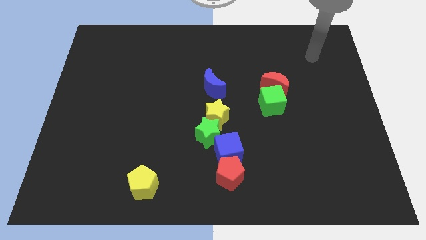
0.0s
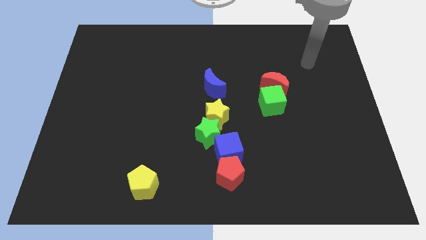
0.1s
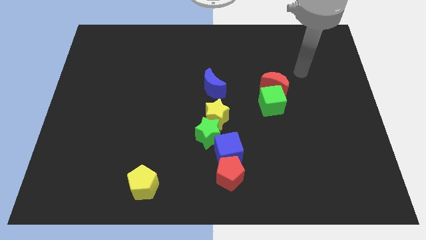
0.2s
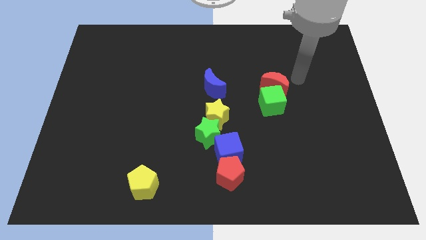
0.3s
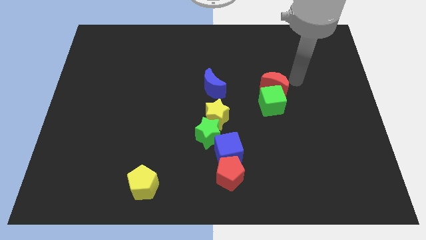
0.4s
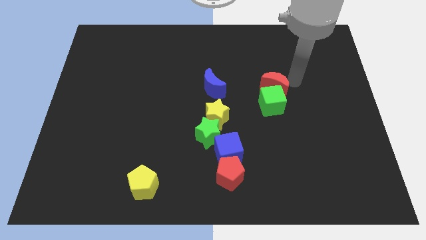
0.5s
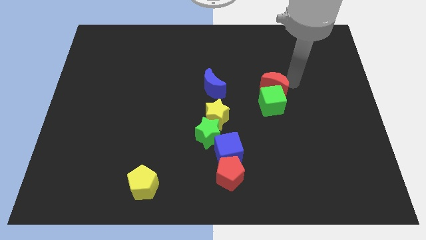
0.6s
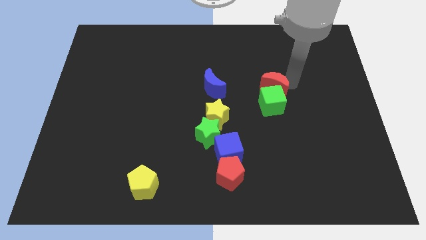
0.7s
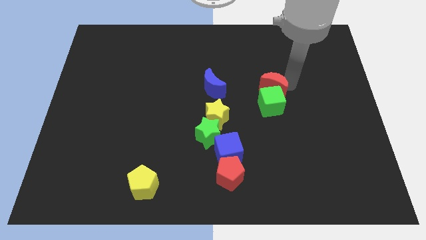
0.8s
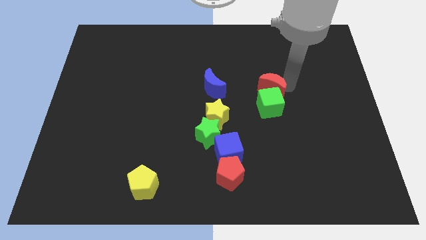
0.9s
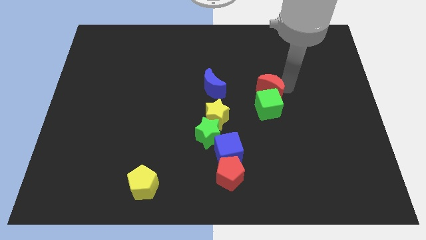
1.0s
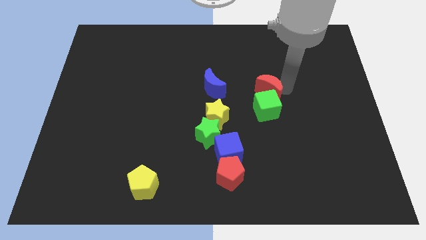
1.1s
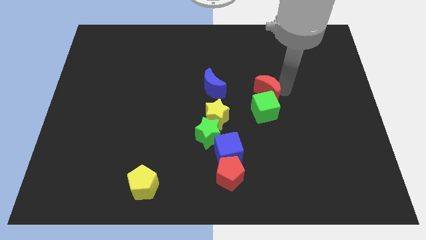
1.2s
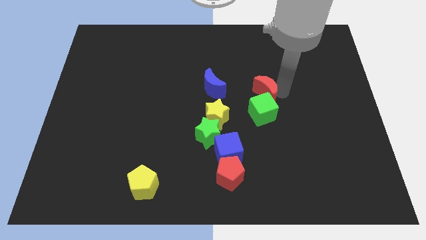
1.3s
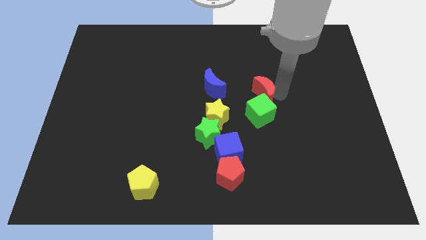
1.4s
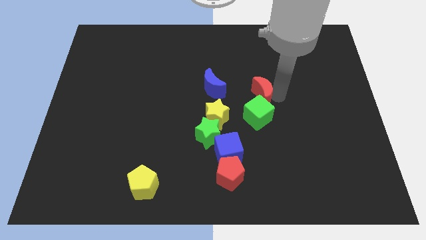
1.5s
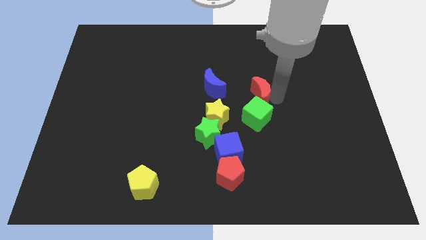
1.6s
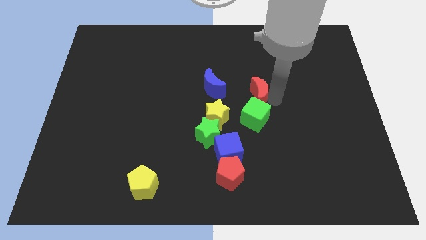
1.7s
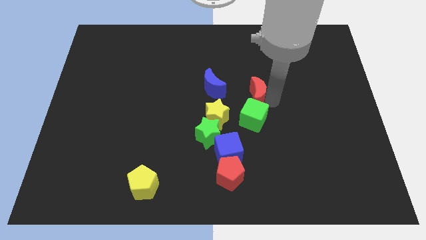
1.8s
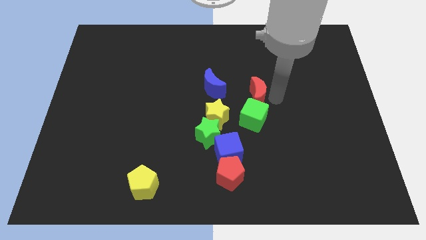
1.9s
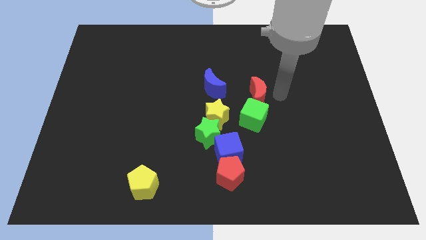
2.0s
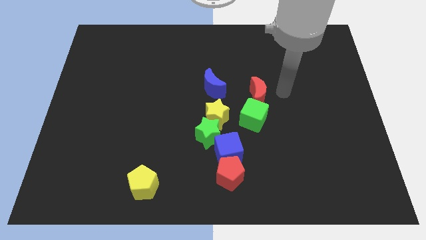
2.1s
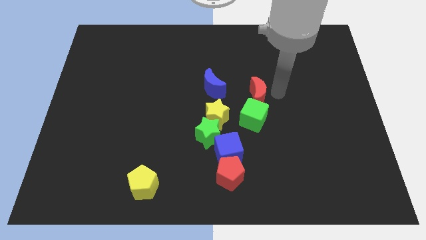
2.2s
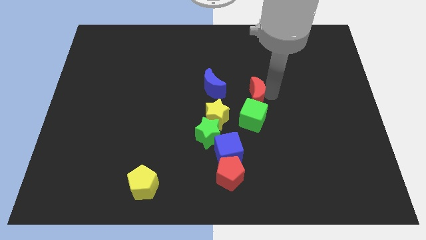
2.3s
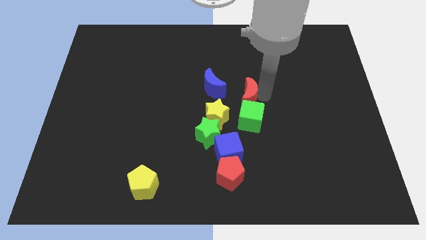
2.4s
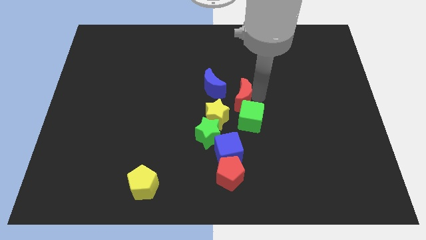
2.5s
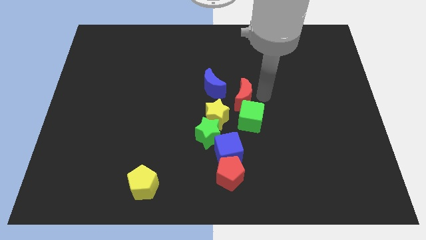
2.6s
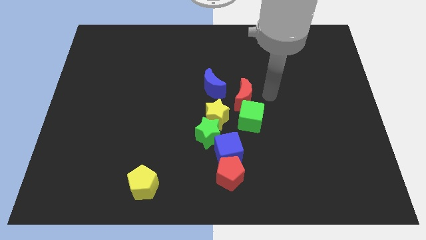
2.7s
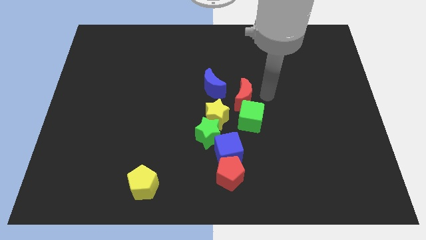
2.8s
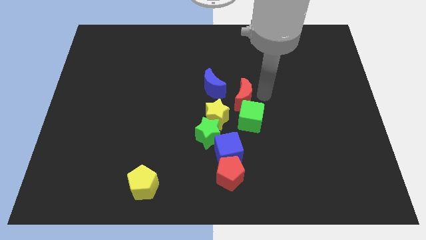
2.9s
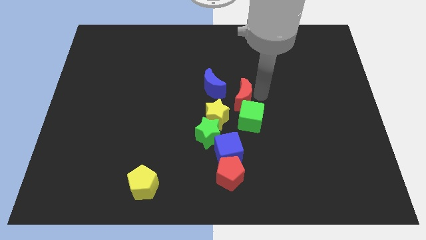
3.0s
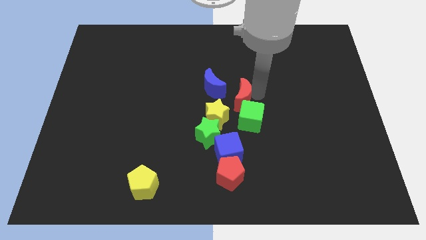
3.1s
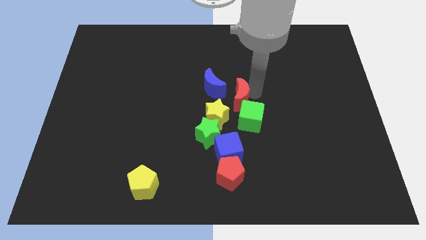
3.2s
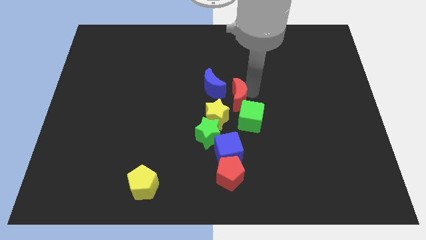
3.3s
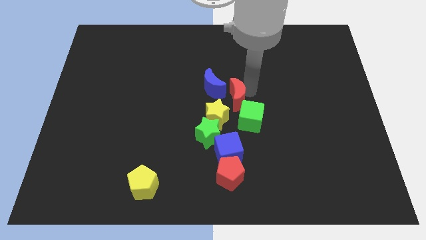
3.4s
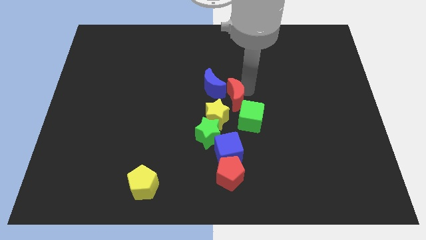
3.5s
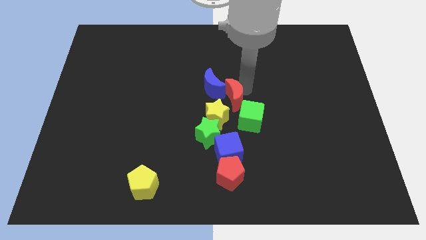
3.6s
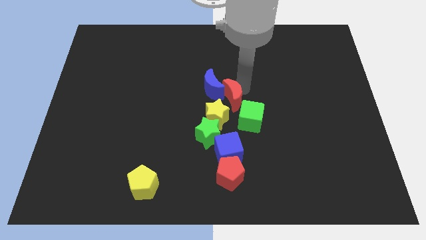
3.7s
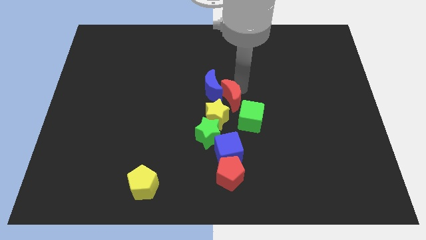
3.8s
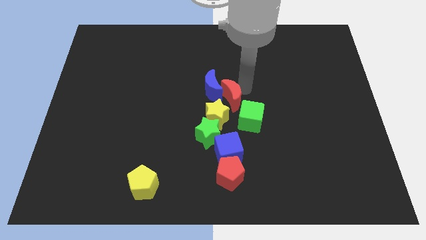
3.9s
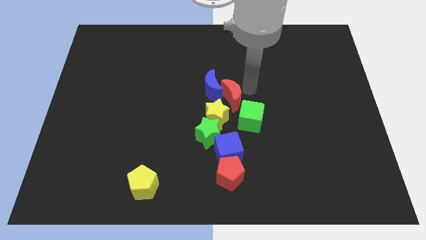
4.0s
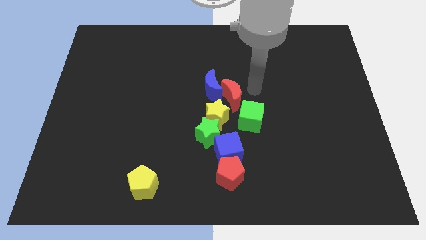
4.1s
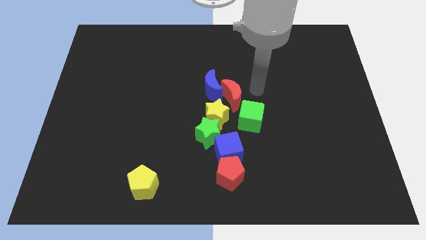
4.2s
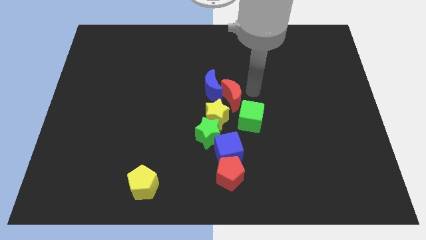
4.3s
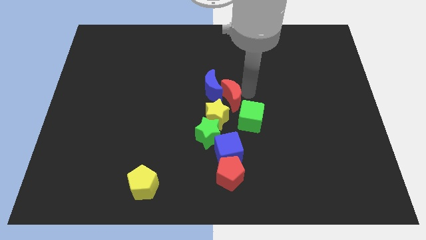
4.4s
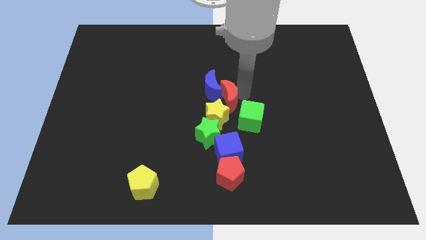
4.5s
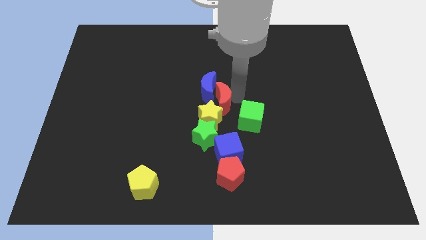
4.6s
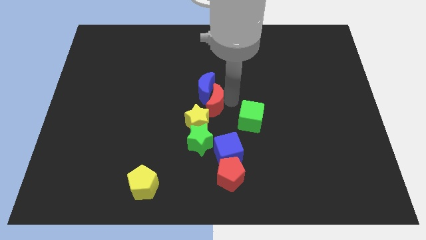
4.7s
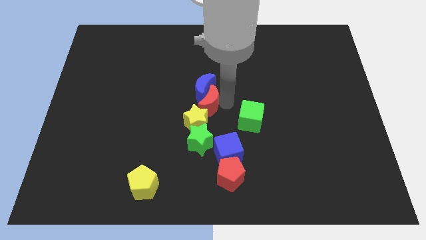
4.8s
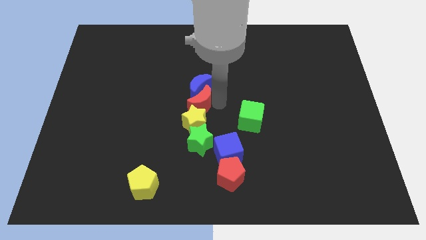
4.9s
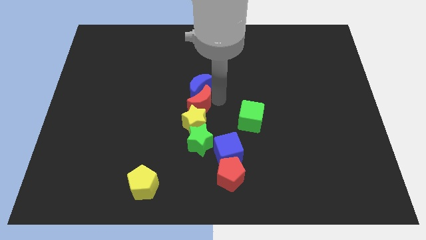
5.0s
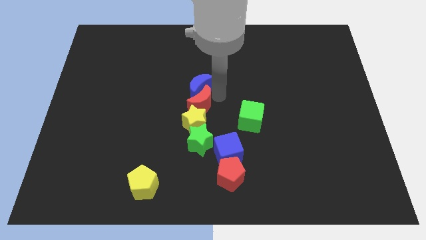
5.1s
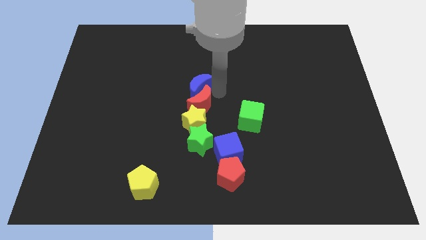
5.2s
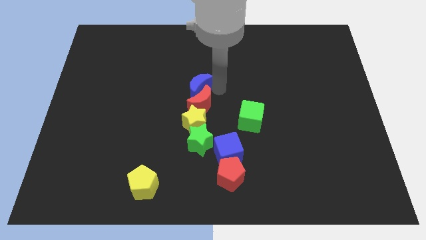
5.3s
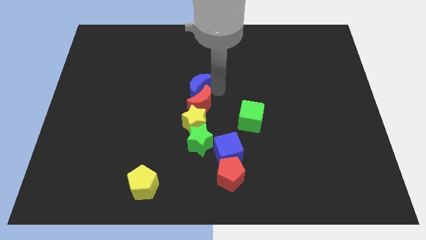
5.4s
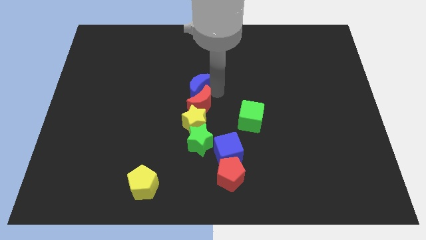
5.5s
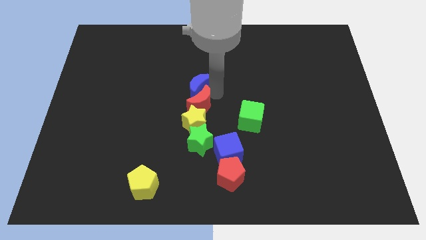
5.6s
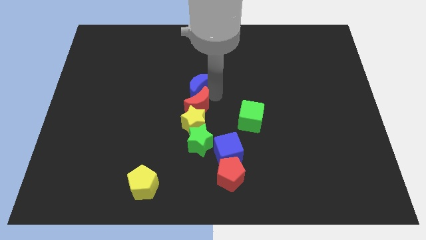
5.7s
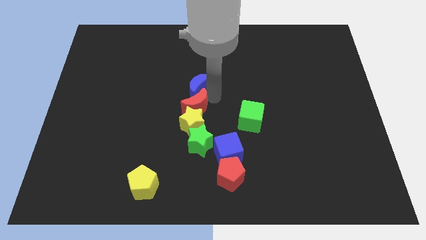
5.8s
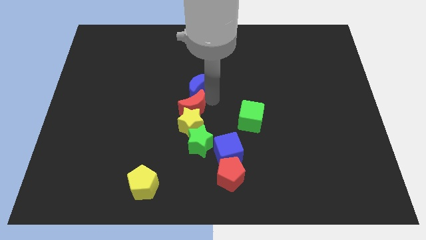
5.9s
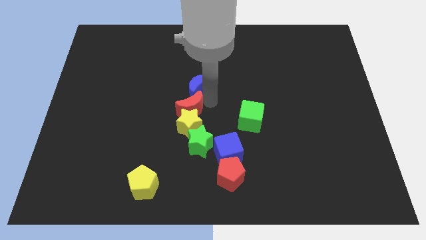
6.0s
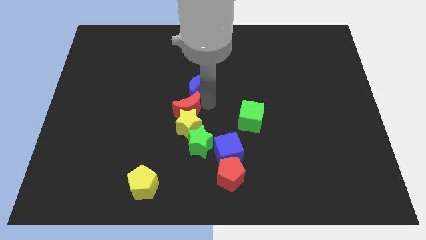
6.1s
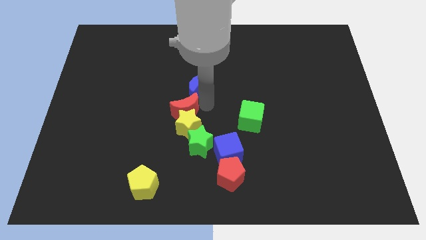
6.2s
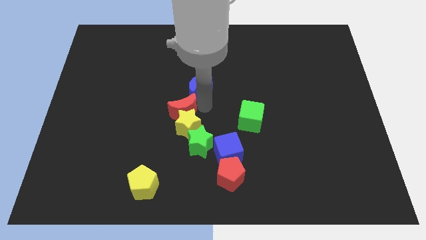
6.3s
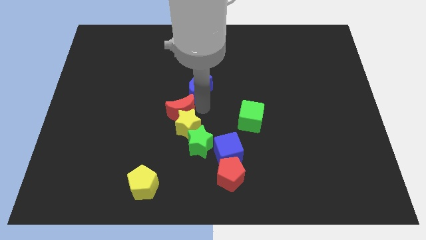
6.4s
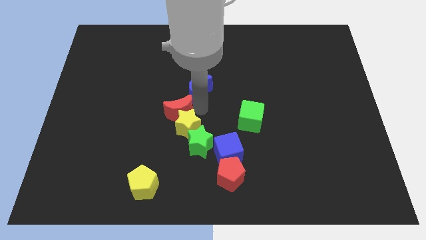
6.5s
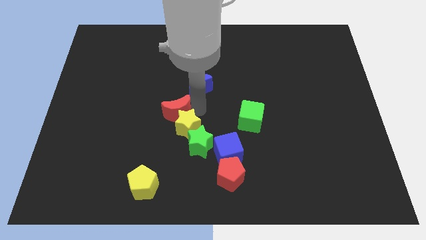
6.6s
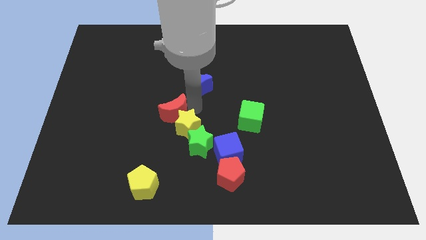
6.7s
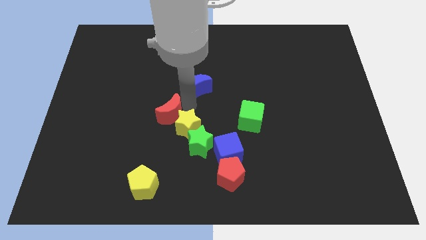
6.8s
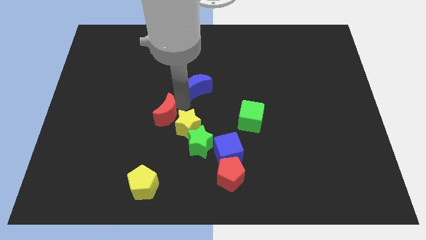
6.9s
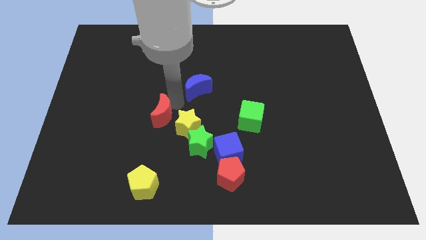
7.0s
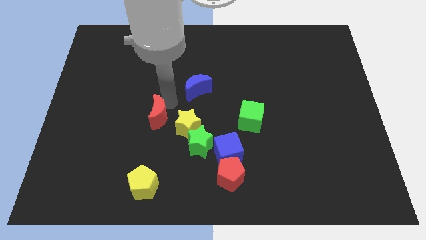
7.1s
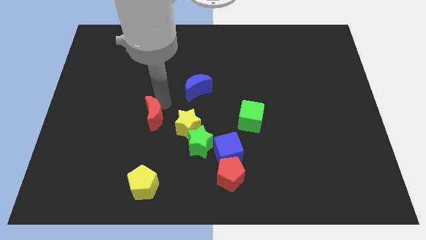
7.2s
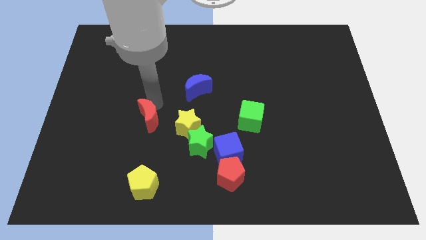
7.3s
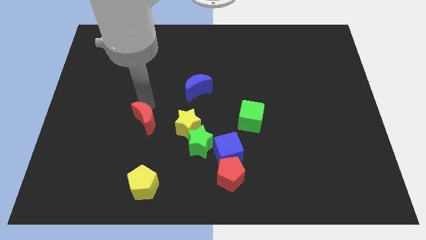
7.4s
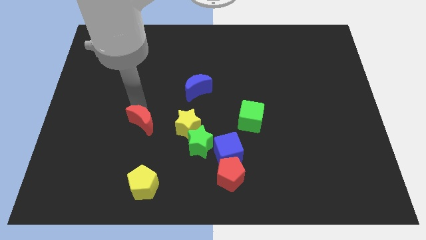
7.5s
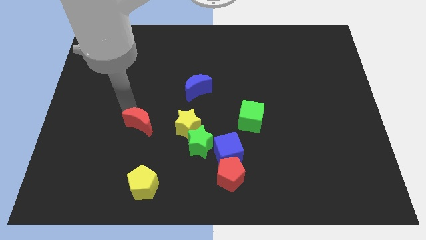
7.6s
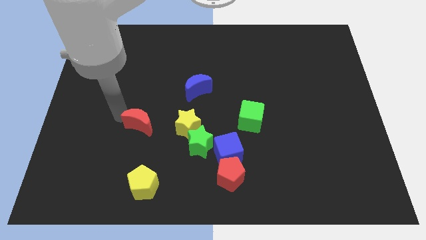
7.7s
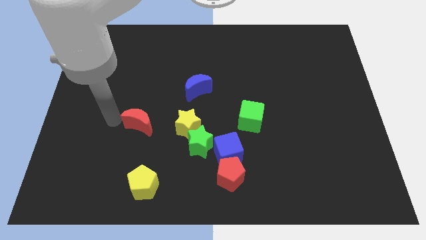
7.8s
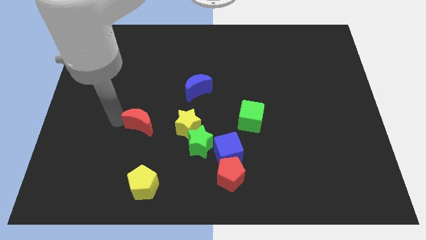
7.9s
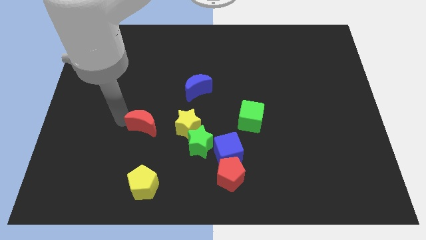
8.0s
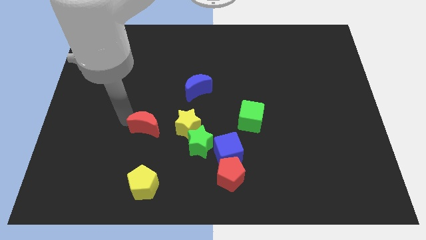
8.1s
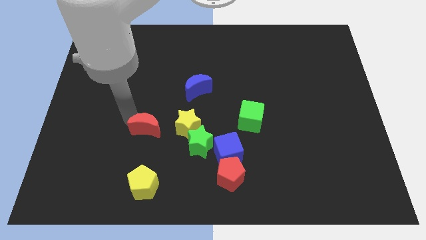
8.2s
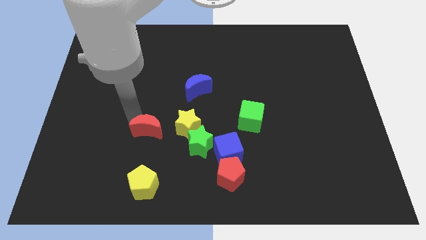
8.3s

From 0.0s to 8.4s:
push the red moon downwards and then left

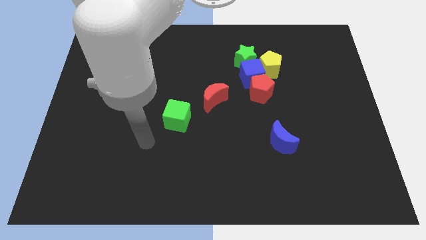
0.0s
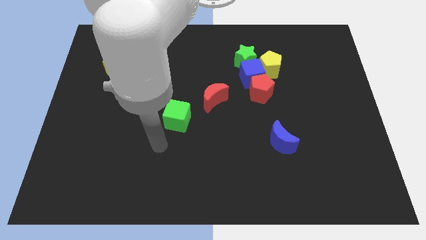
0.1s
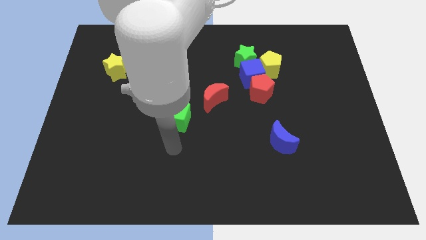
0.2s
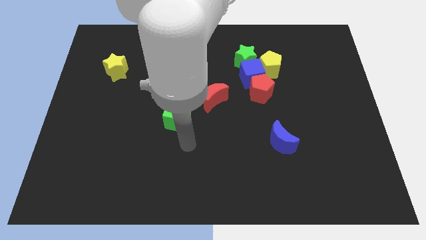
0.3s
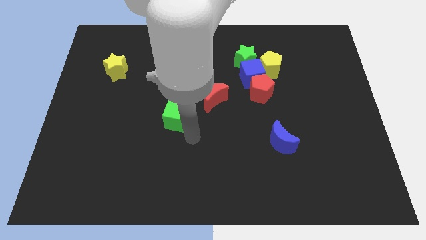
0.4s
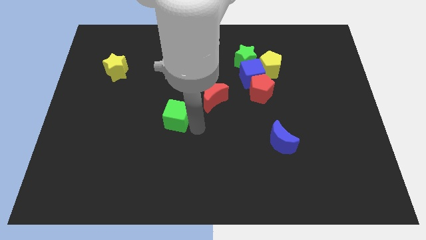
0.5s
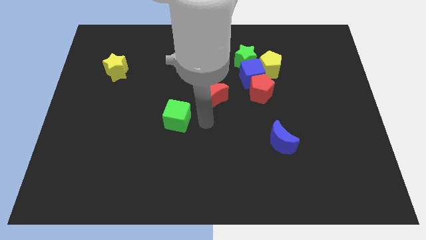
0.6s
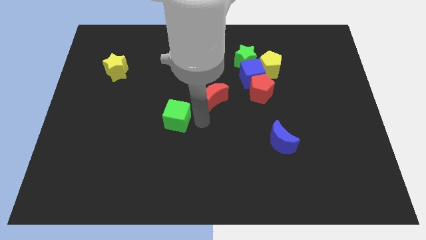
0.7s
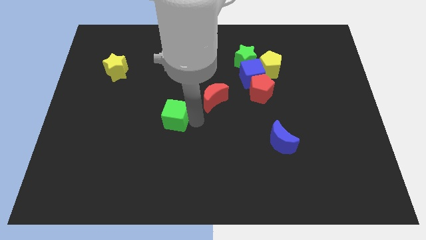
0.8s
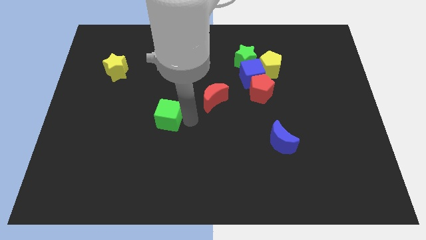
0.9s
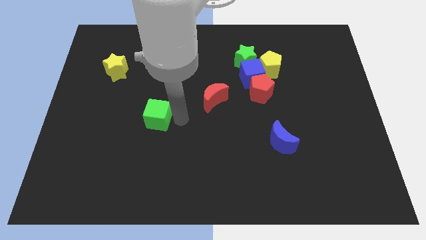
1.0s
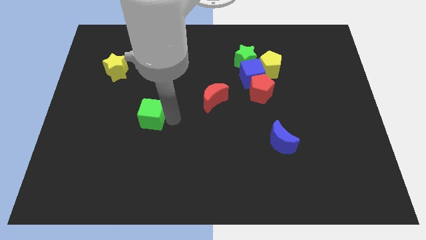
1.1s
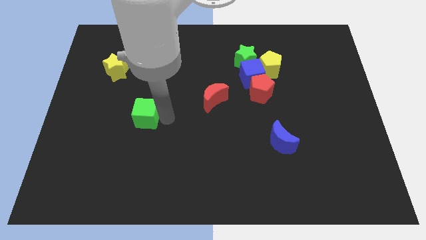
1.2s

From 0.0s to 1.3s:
move the green cube left a bit
